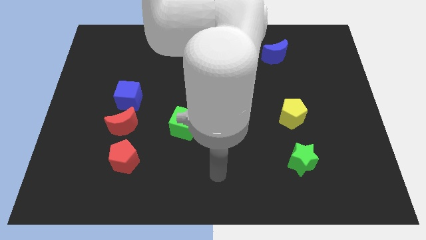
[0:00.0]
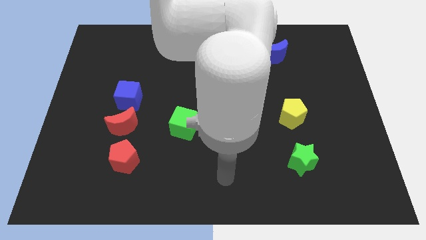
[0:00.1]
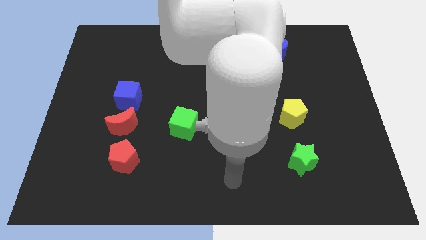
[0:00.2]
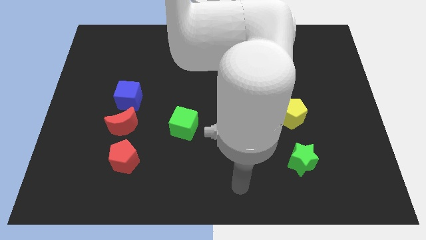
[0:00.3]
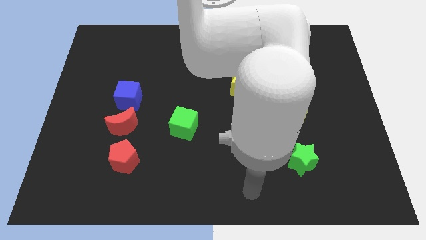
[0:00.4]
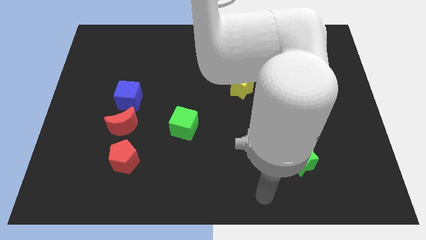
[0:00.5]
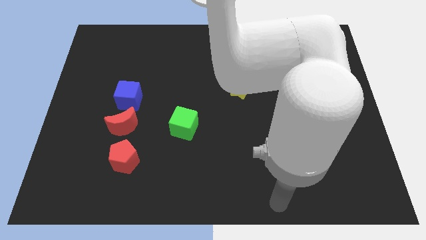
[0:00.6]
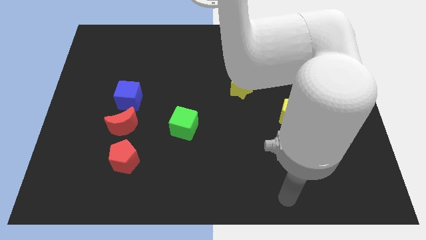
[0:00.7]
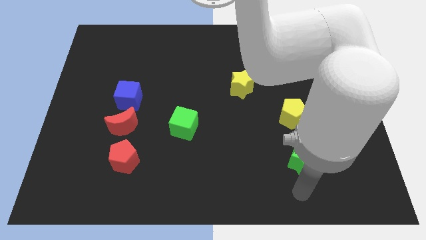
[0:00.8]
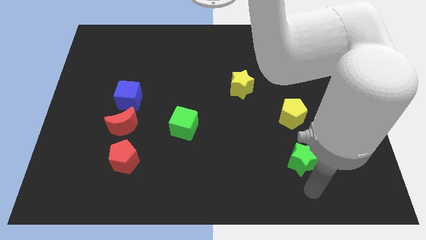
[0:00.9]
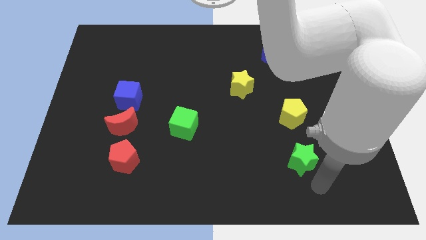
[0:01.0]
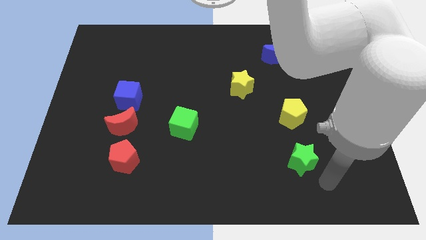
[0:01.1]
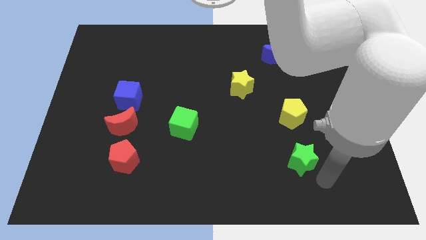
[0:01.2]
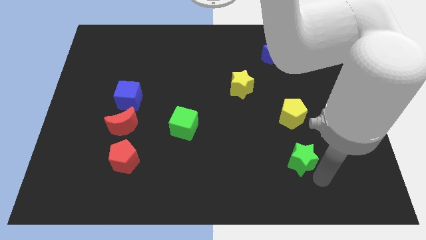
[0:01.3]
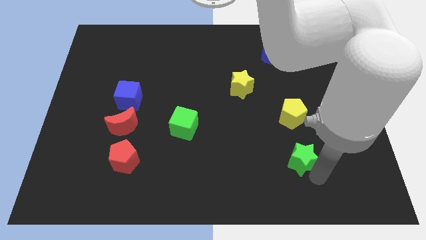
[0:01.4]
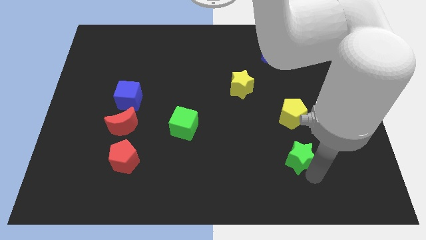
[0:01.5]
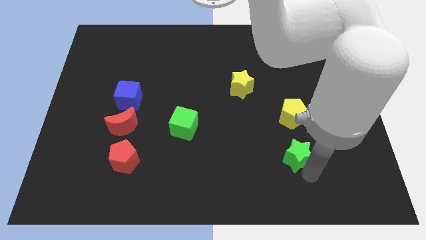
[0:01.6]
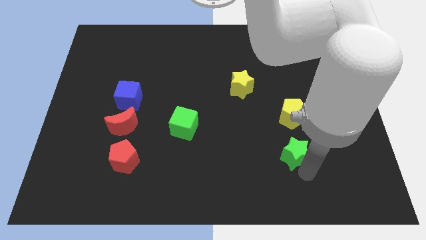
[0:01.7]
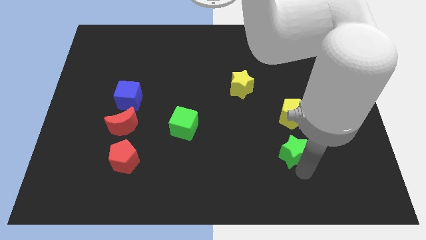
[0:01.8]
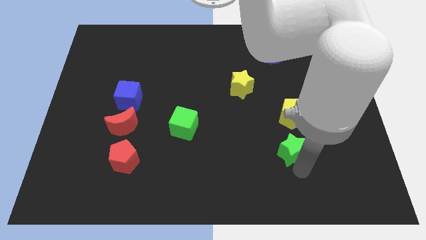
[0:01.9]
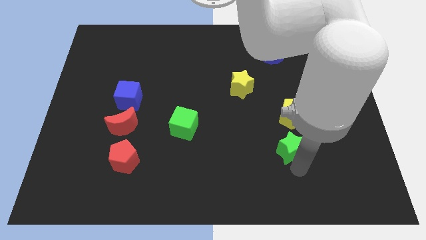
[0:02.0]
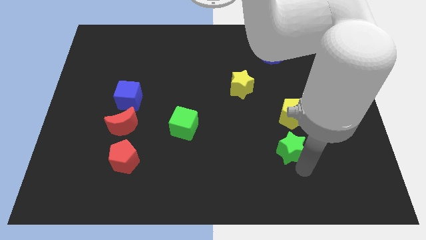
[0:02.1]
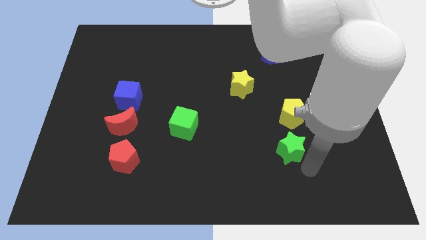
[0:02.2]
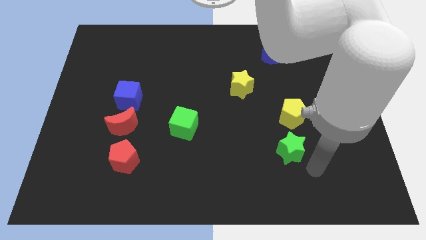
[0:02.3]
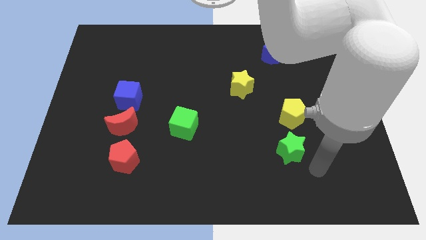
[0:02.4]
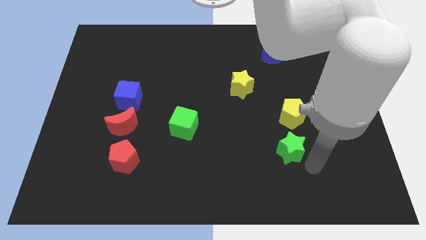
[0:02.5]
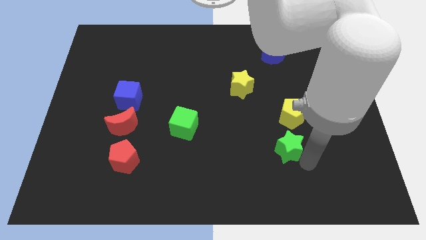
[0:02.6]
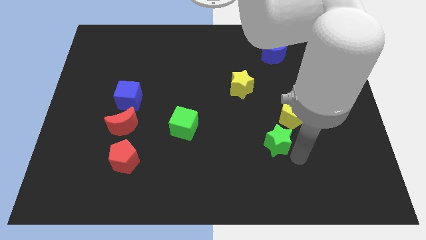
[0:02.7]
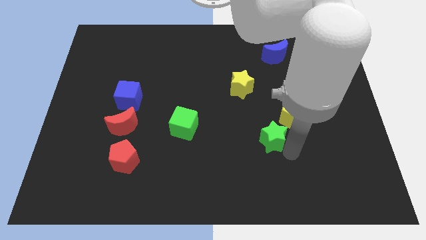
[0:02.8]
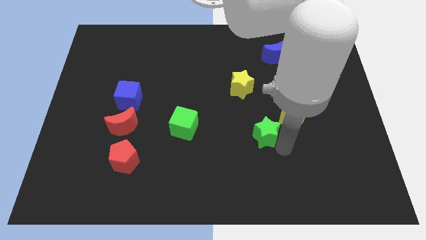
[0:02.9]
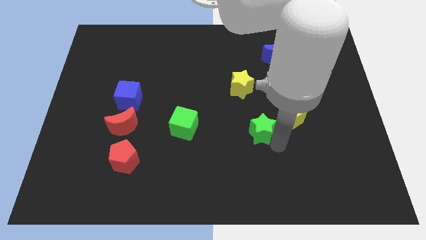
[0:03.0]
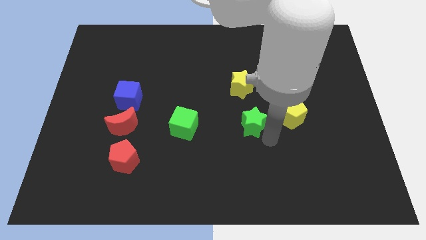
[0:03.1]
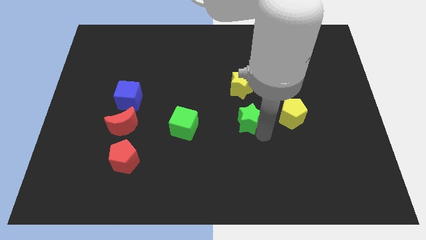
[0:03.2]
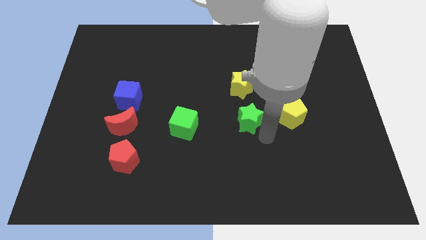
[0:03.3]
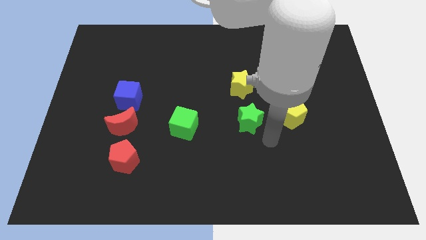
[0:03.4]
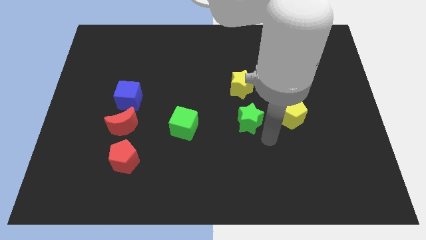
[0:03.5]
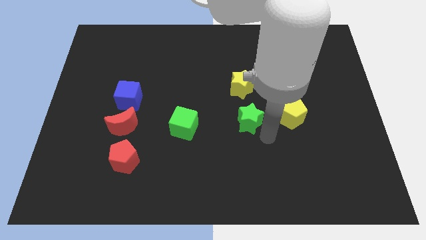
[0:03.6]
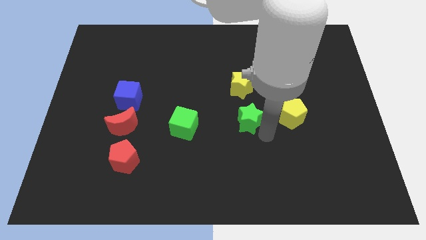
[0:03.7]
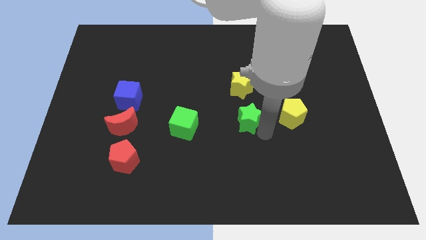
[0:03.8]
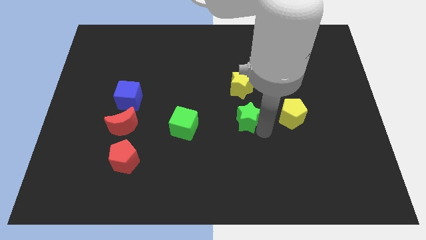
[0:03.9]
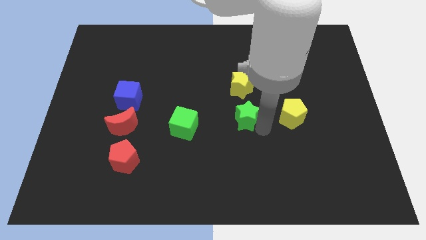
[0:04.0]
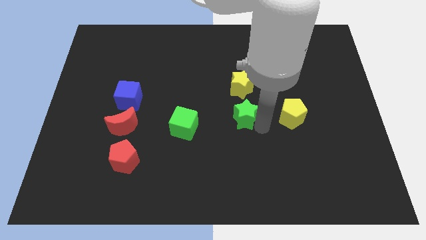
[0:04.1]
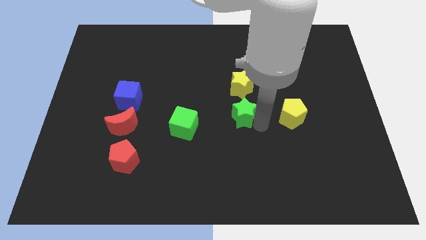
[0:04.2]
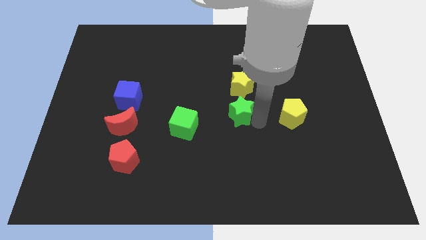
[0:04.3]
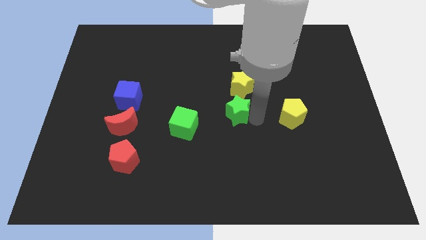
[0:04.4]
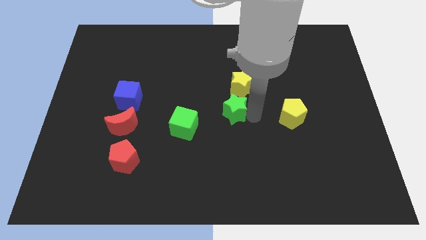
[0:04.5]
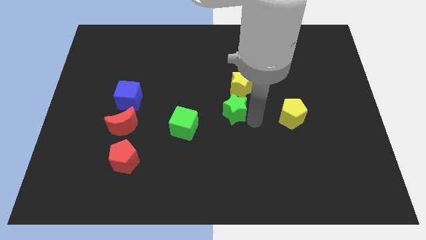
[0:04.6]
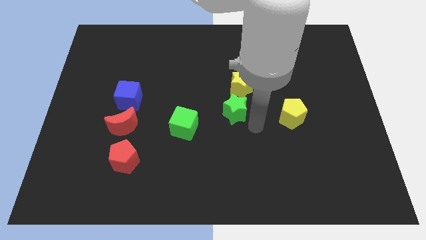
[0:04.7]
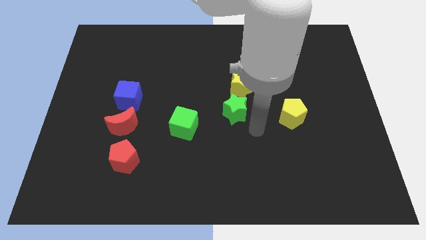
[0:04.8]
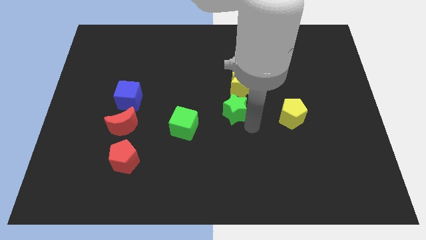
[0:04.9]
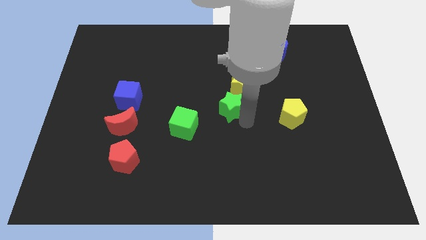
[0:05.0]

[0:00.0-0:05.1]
push the green star up and then to the left

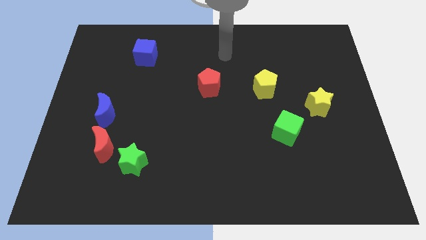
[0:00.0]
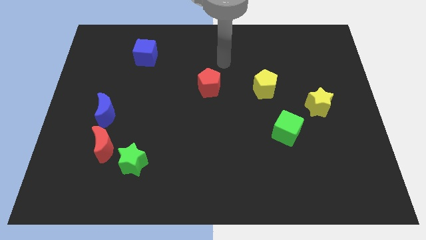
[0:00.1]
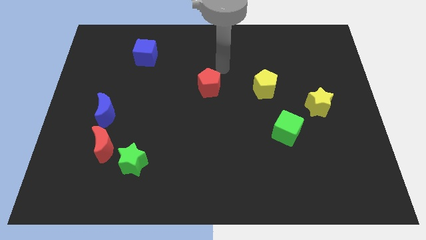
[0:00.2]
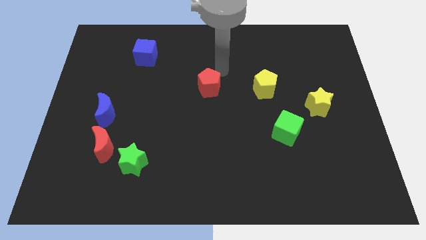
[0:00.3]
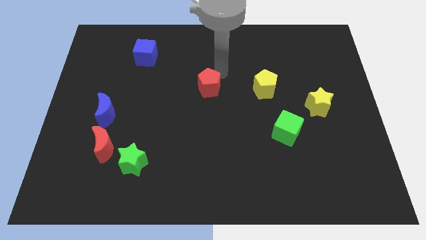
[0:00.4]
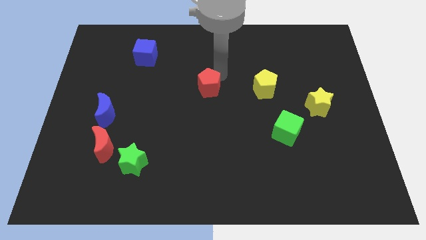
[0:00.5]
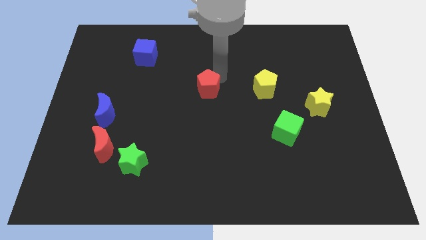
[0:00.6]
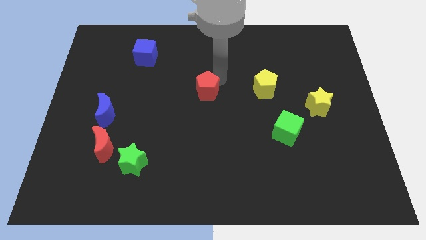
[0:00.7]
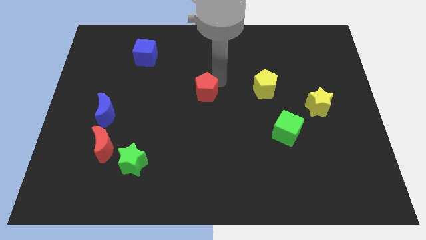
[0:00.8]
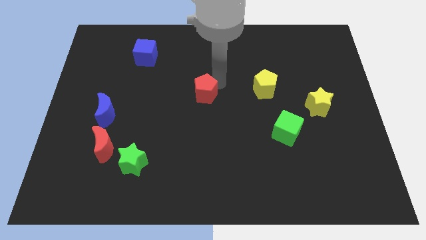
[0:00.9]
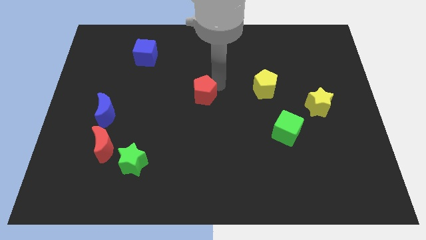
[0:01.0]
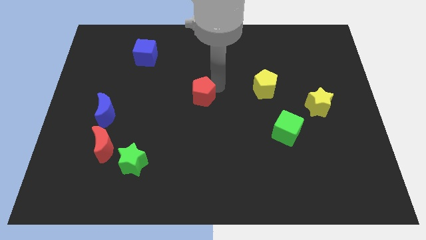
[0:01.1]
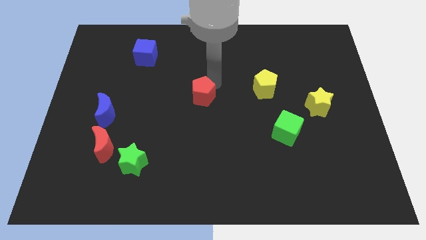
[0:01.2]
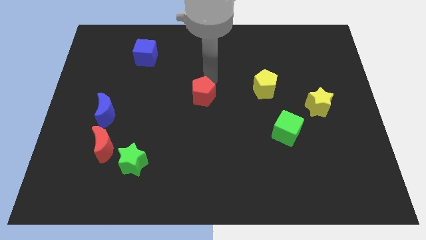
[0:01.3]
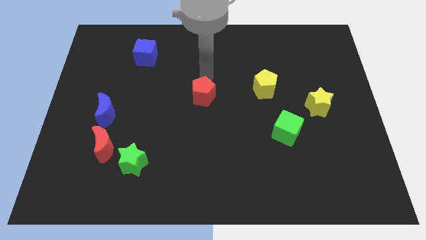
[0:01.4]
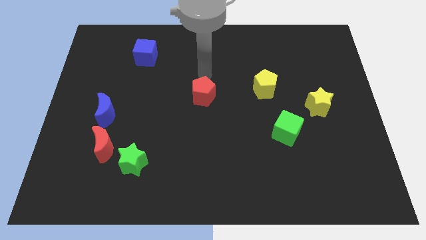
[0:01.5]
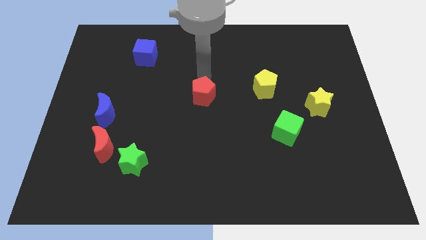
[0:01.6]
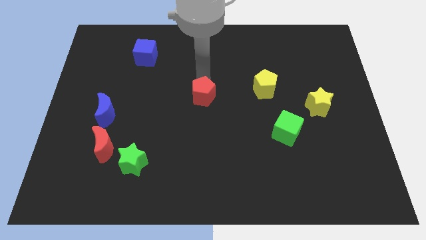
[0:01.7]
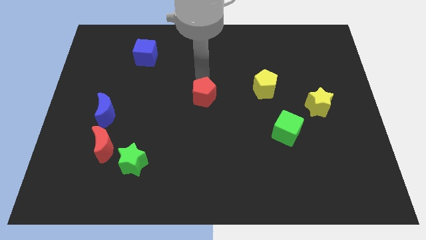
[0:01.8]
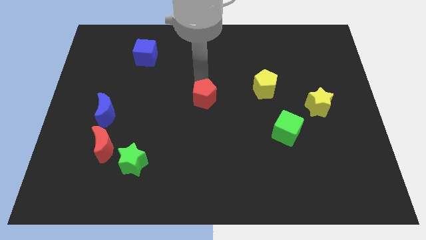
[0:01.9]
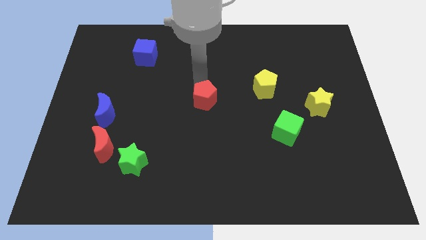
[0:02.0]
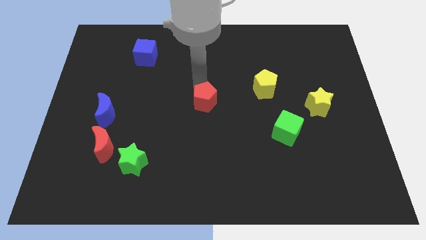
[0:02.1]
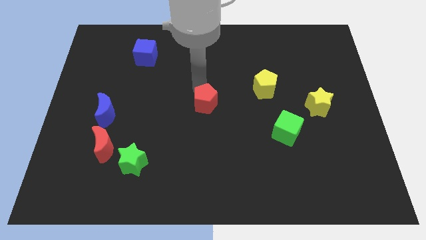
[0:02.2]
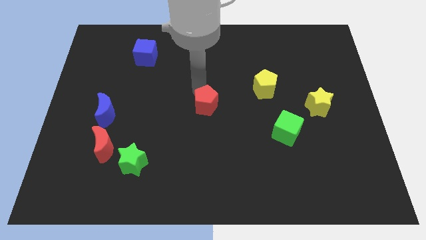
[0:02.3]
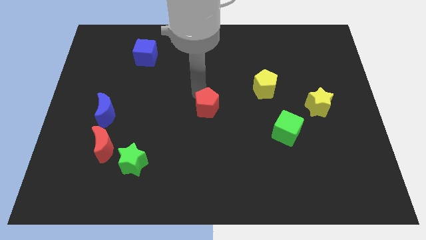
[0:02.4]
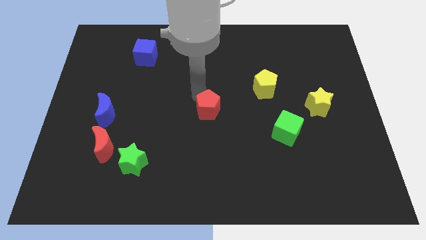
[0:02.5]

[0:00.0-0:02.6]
slide the red pentagon downwards slightly

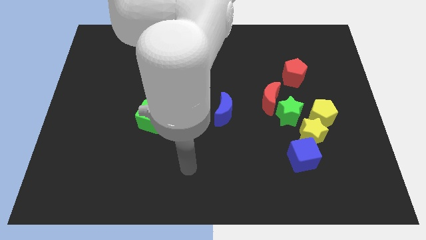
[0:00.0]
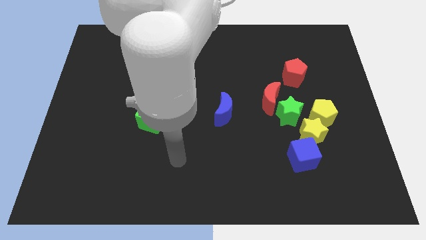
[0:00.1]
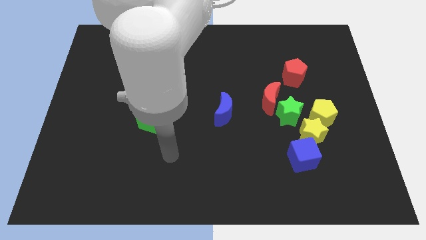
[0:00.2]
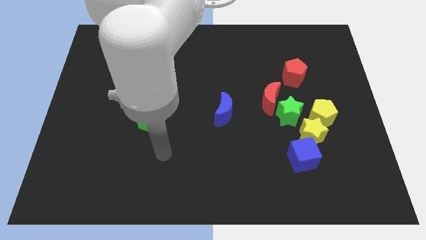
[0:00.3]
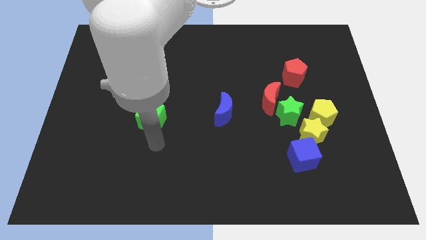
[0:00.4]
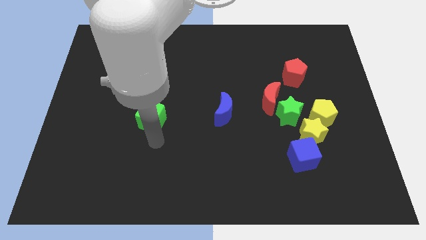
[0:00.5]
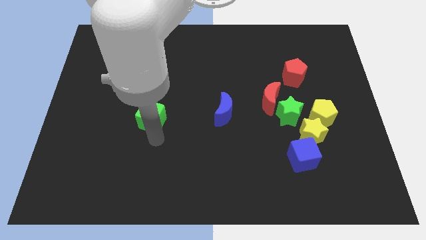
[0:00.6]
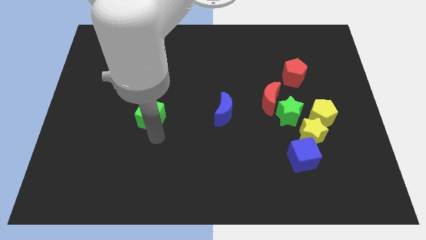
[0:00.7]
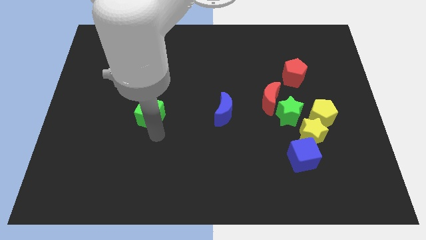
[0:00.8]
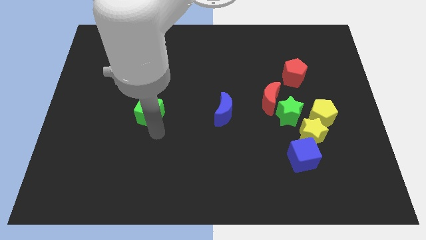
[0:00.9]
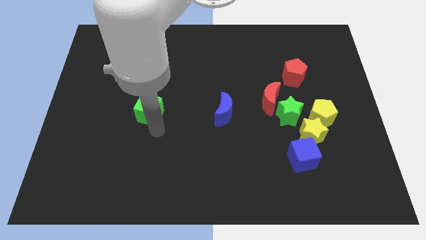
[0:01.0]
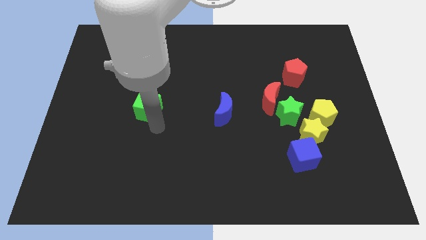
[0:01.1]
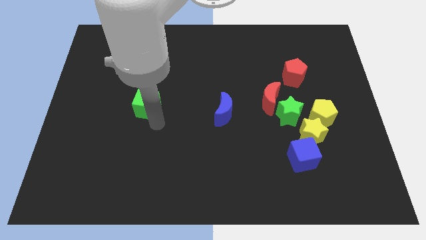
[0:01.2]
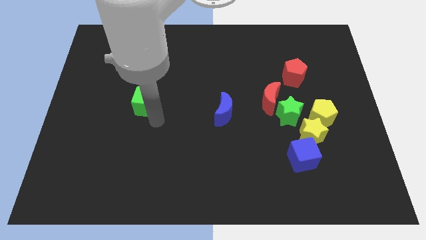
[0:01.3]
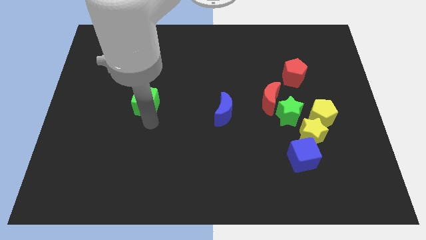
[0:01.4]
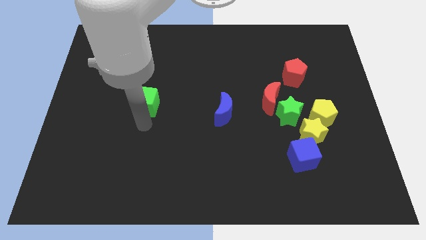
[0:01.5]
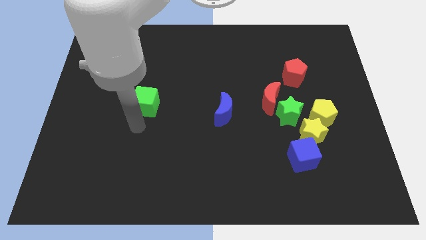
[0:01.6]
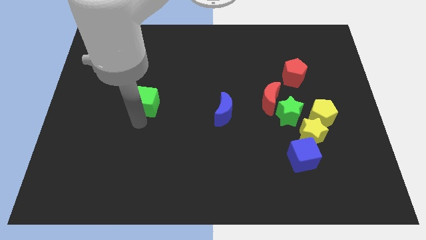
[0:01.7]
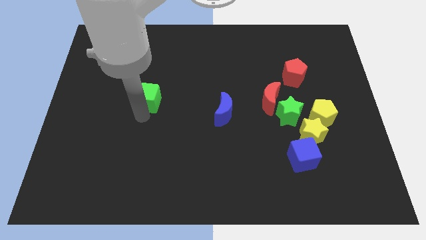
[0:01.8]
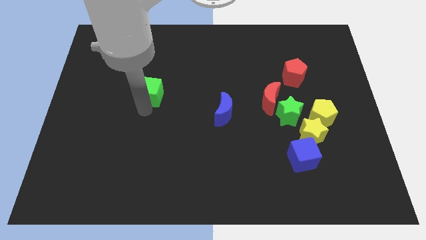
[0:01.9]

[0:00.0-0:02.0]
slightly slide the green cube upwards
